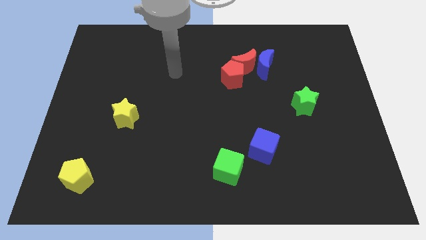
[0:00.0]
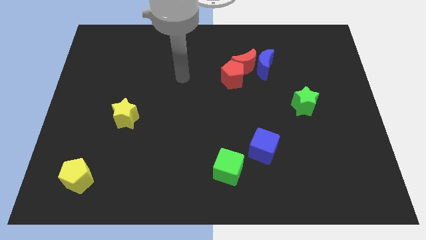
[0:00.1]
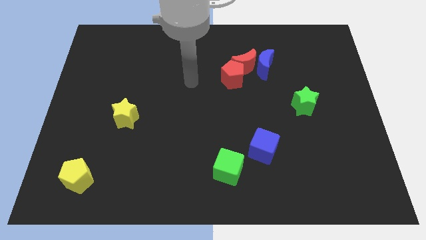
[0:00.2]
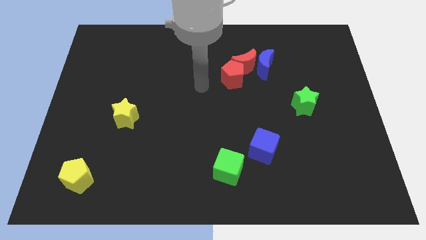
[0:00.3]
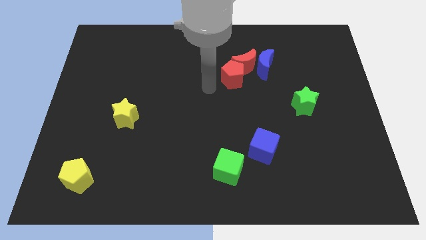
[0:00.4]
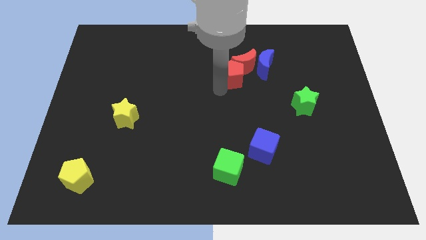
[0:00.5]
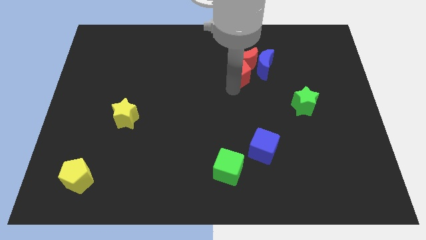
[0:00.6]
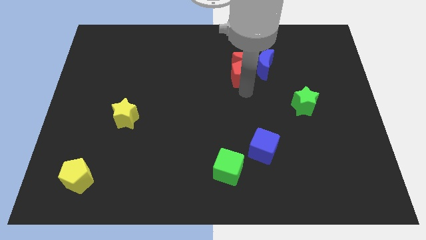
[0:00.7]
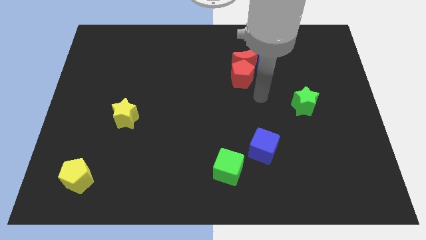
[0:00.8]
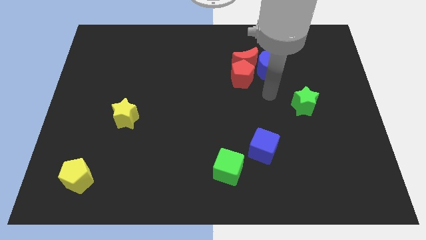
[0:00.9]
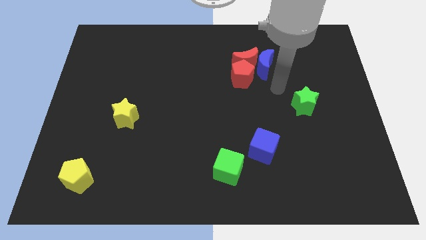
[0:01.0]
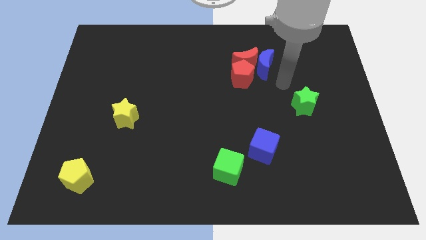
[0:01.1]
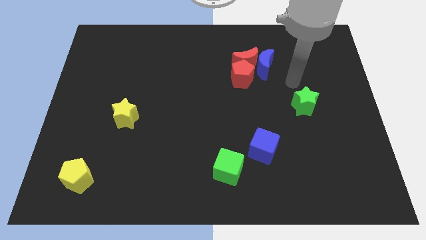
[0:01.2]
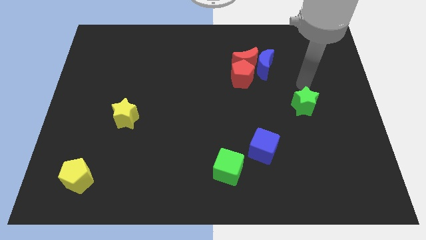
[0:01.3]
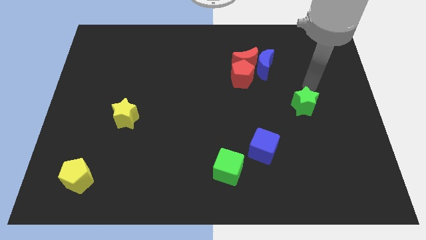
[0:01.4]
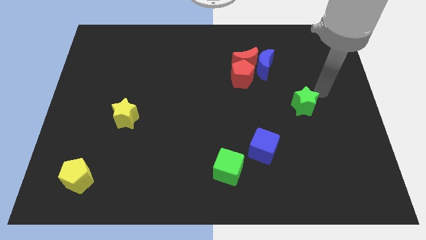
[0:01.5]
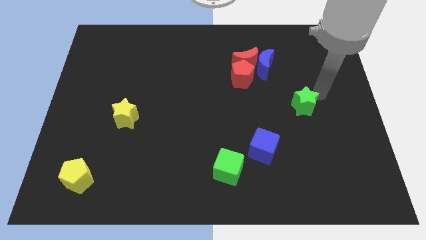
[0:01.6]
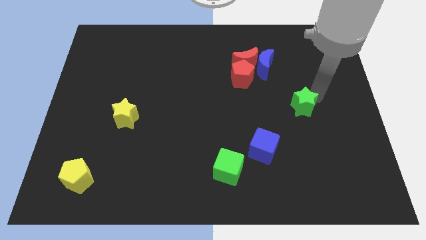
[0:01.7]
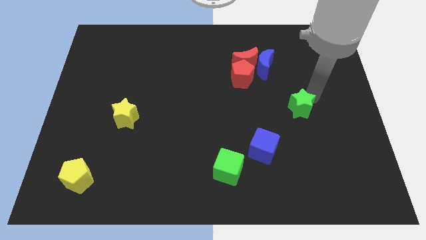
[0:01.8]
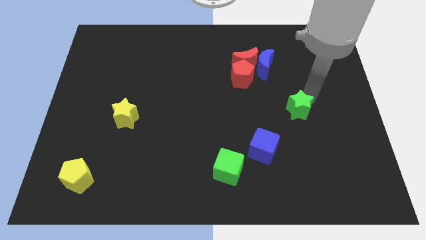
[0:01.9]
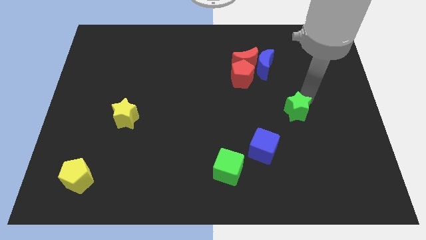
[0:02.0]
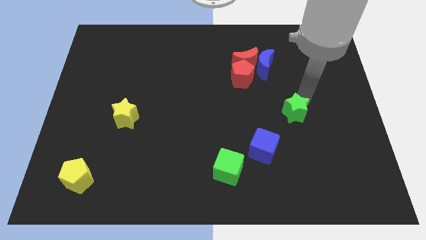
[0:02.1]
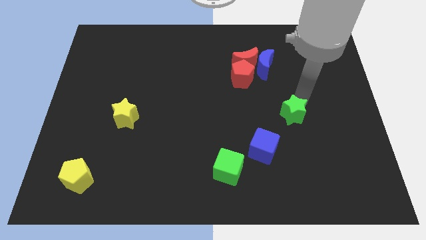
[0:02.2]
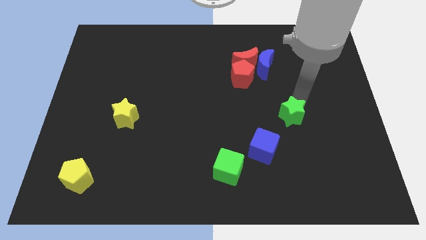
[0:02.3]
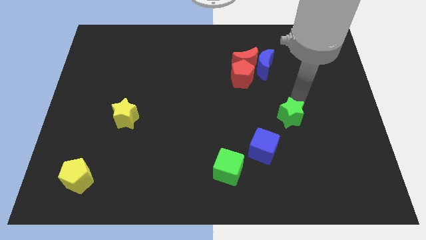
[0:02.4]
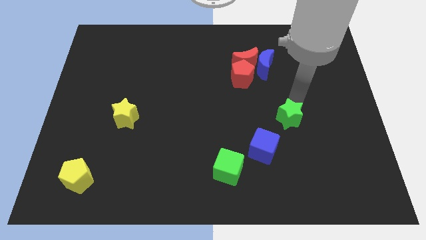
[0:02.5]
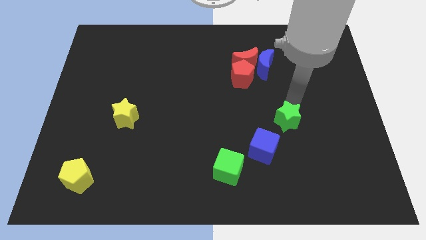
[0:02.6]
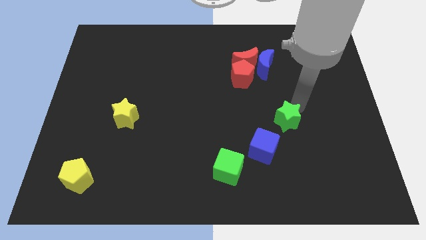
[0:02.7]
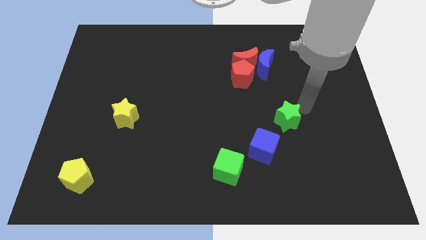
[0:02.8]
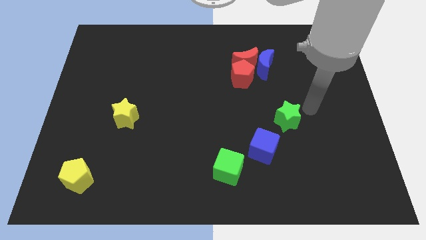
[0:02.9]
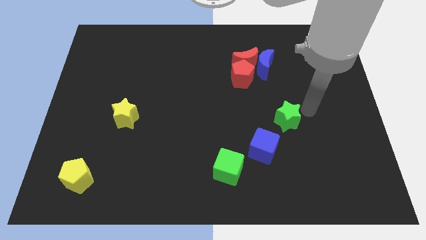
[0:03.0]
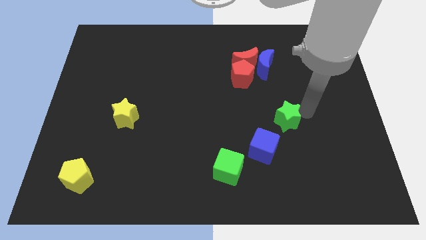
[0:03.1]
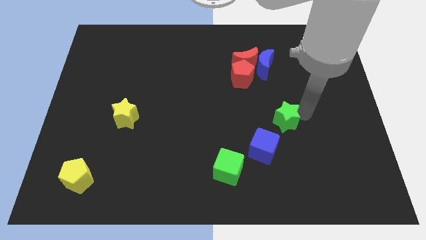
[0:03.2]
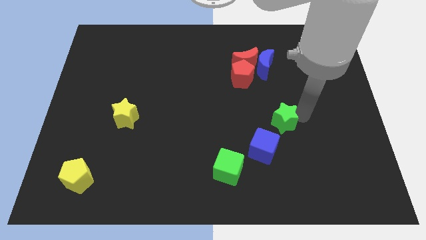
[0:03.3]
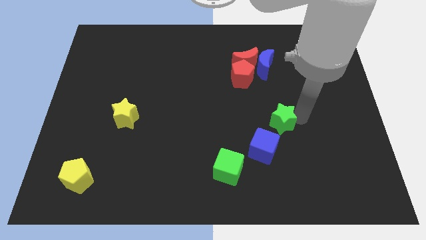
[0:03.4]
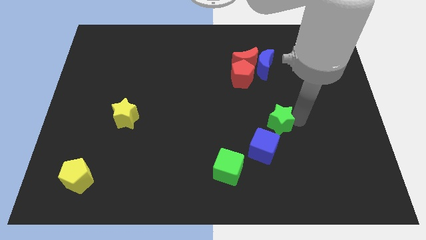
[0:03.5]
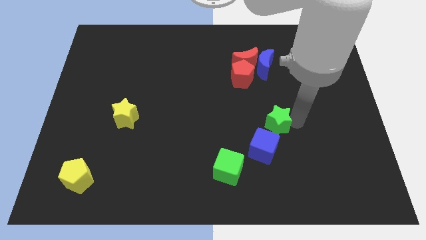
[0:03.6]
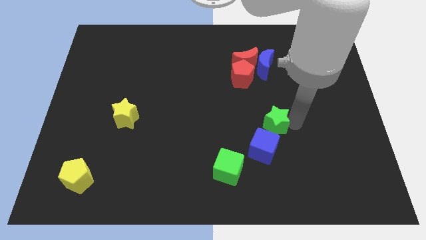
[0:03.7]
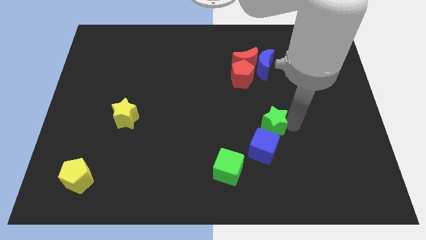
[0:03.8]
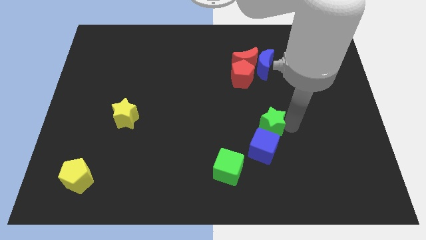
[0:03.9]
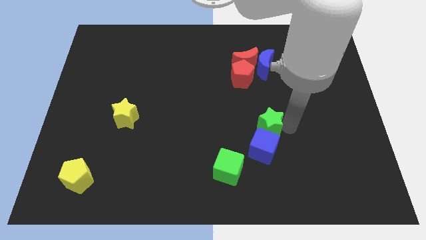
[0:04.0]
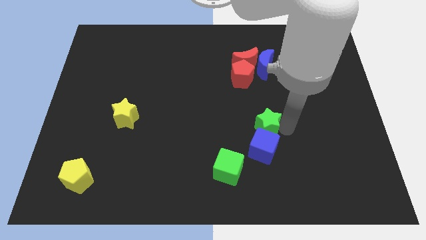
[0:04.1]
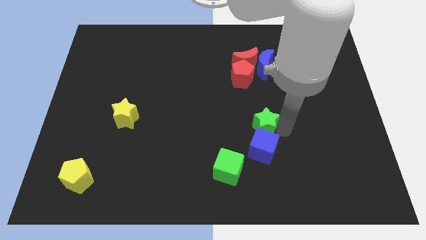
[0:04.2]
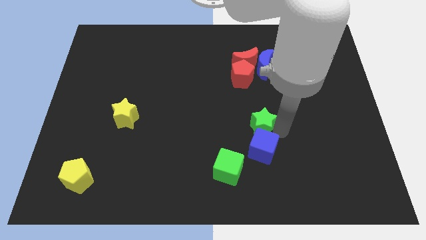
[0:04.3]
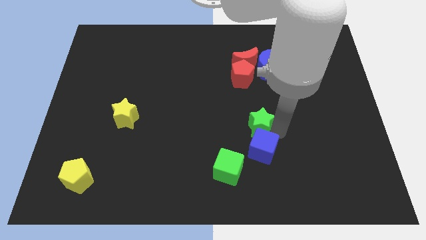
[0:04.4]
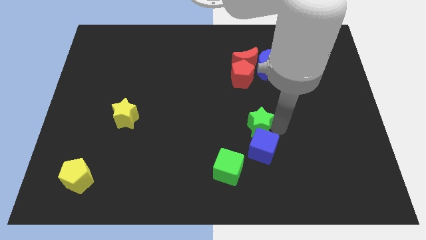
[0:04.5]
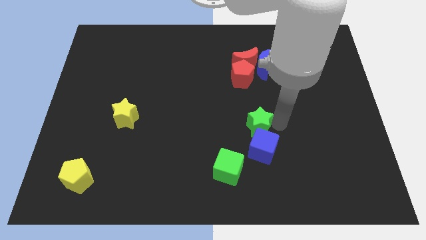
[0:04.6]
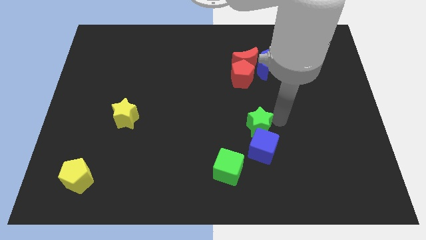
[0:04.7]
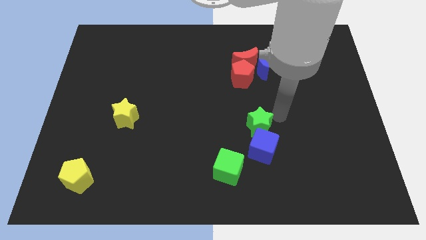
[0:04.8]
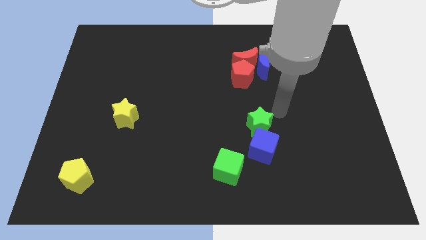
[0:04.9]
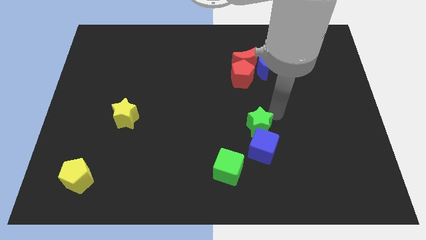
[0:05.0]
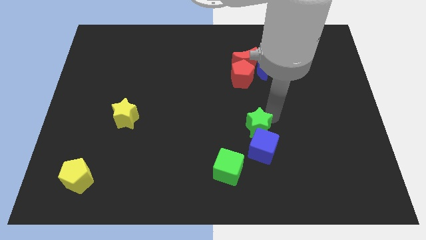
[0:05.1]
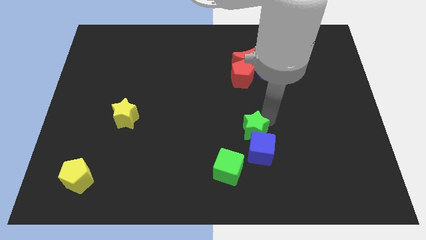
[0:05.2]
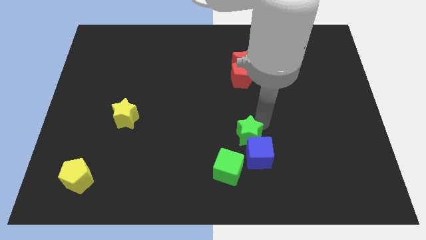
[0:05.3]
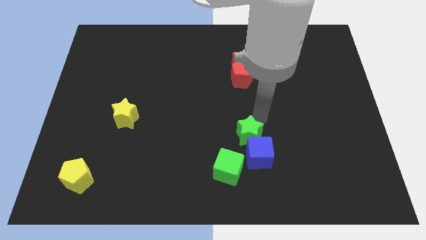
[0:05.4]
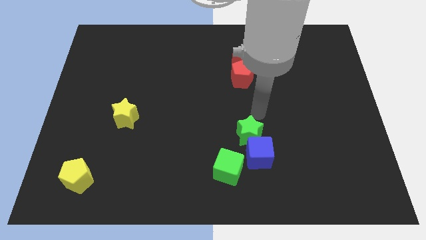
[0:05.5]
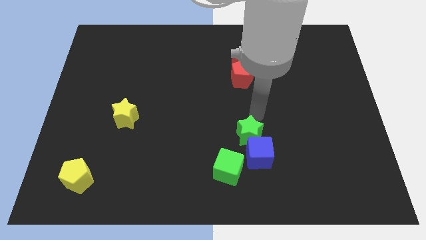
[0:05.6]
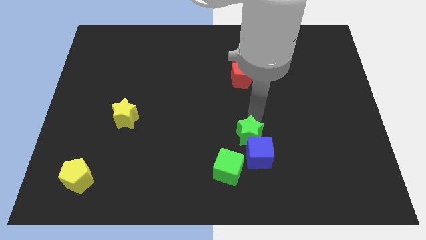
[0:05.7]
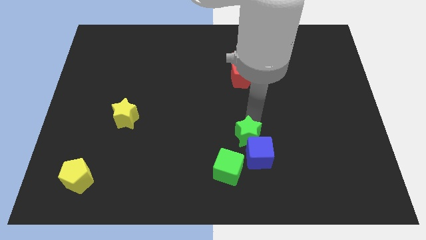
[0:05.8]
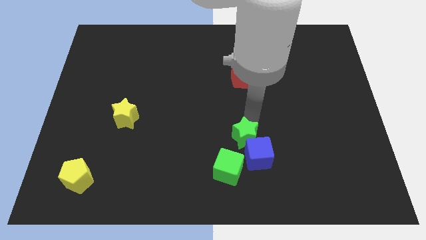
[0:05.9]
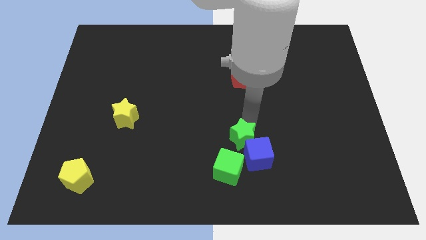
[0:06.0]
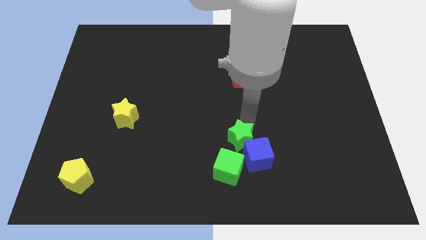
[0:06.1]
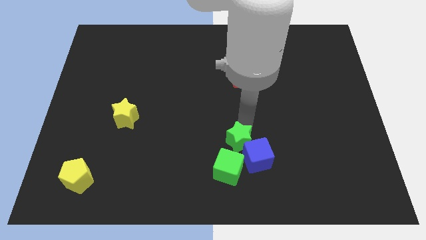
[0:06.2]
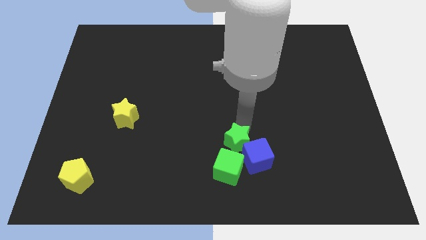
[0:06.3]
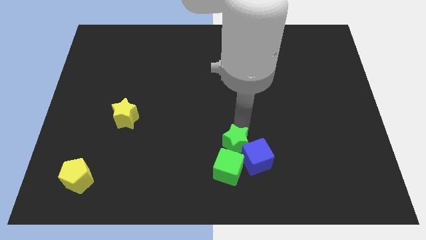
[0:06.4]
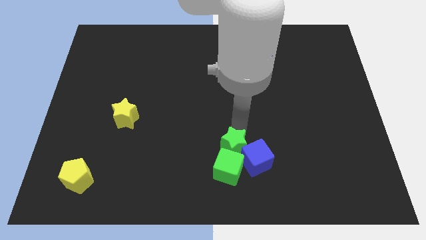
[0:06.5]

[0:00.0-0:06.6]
push the green star to the green cube
